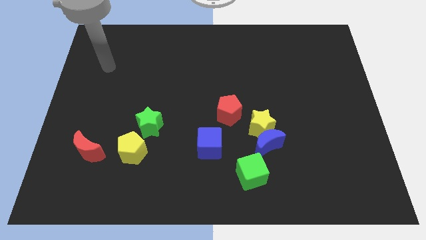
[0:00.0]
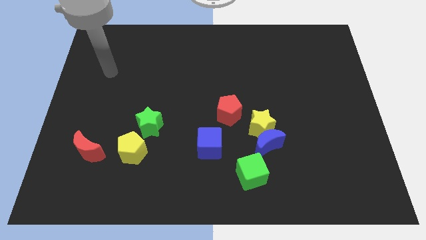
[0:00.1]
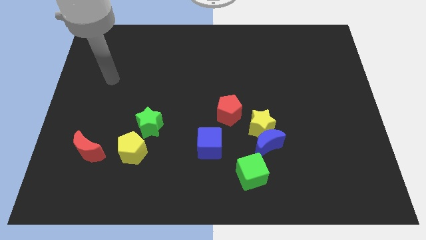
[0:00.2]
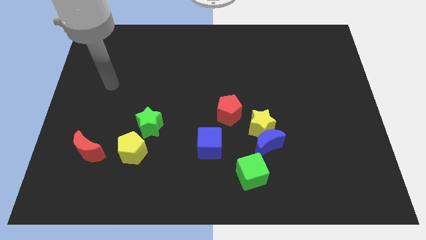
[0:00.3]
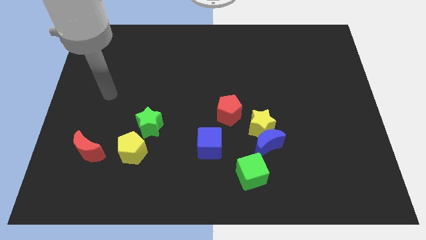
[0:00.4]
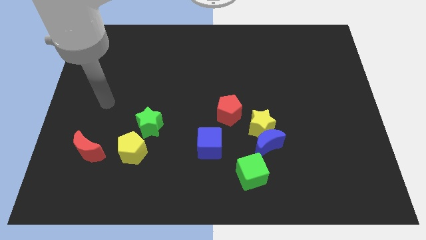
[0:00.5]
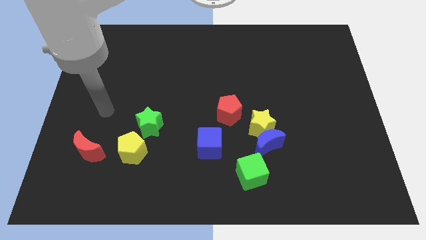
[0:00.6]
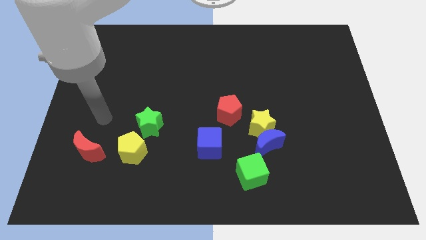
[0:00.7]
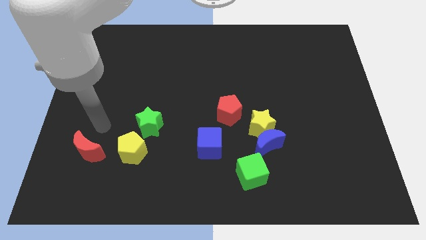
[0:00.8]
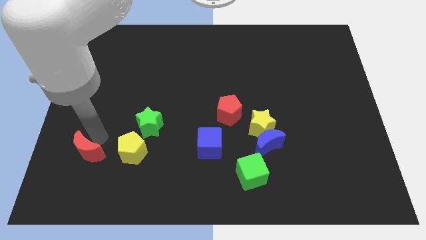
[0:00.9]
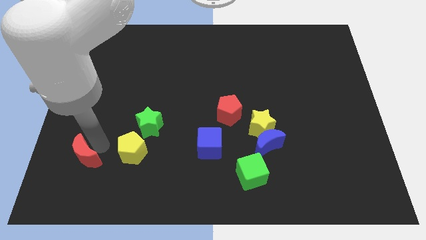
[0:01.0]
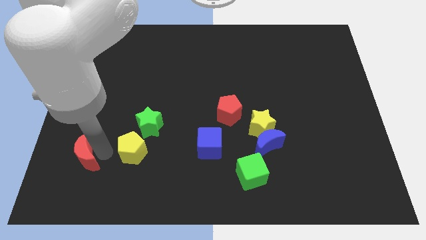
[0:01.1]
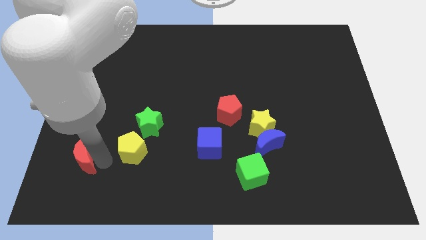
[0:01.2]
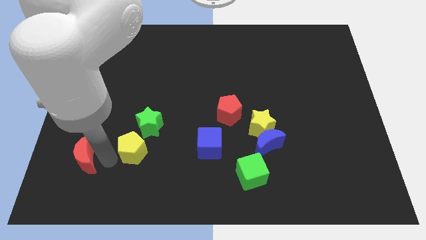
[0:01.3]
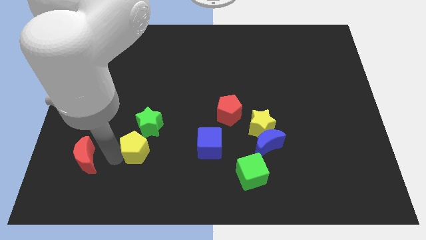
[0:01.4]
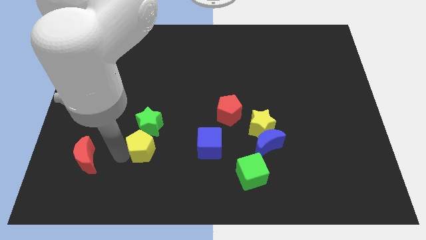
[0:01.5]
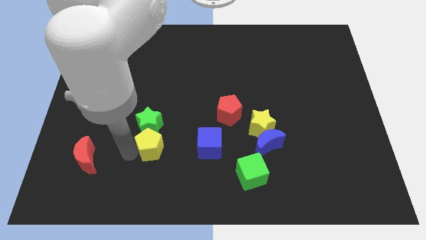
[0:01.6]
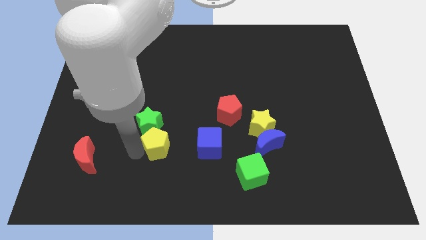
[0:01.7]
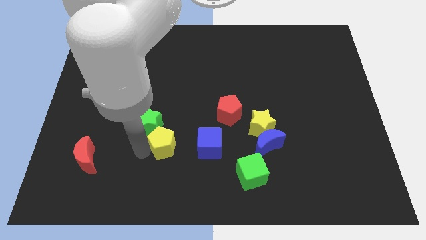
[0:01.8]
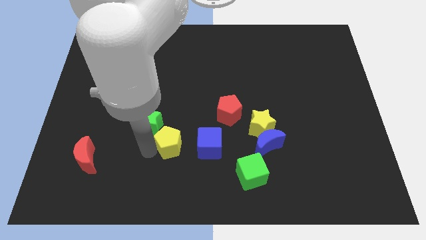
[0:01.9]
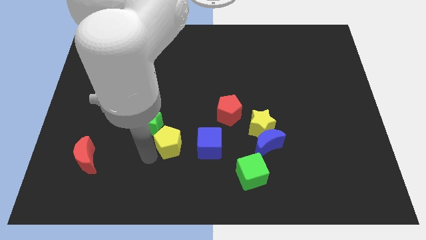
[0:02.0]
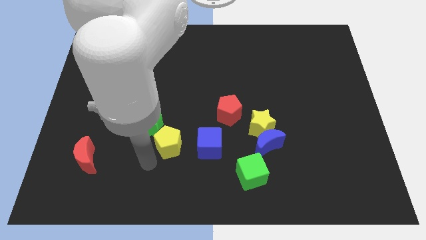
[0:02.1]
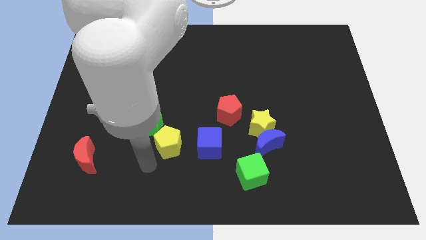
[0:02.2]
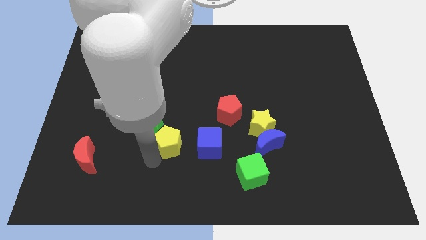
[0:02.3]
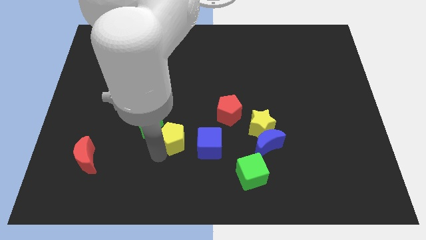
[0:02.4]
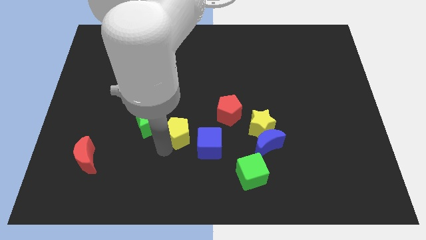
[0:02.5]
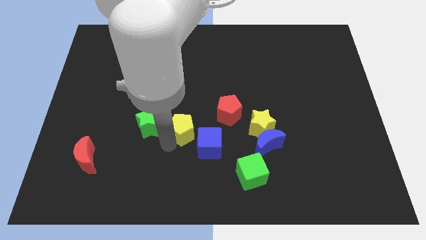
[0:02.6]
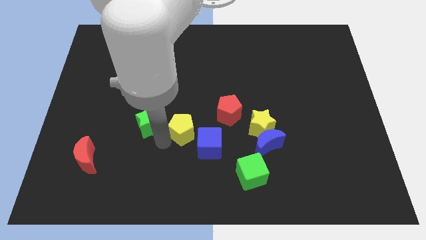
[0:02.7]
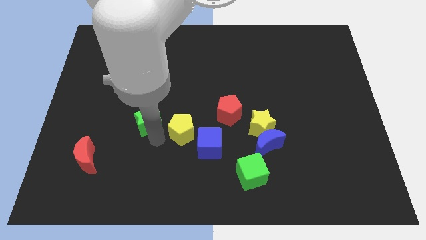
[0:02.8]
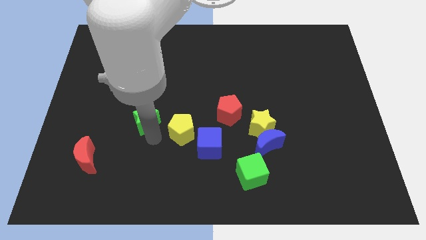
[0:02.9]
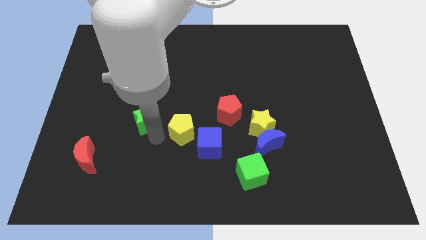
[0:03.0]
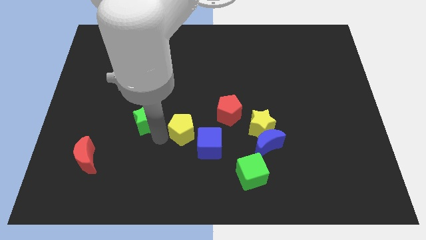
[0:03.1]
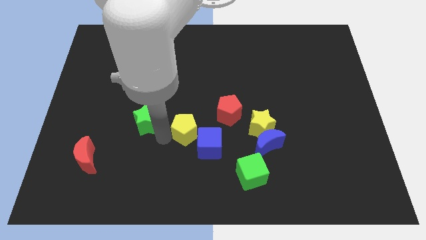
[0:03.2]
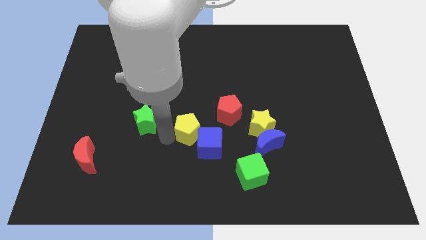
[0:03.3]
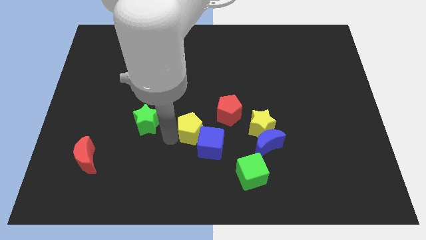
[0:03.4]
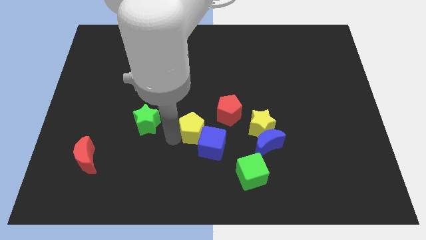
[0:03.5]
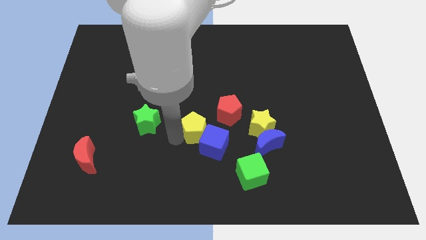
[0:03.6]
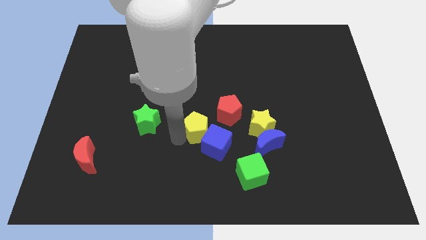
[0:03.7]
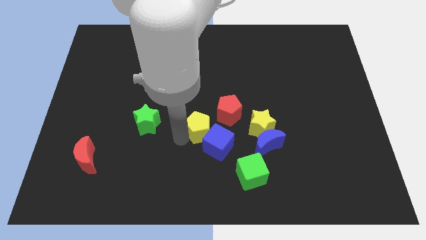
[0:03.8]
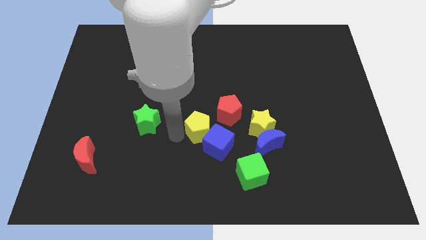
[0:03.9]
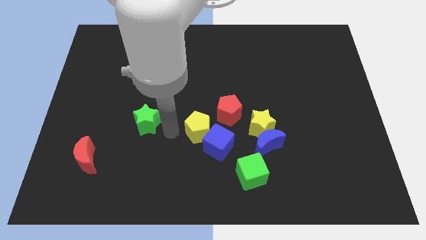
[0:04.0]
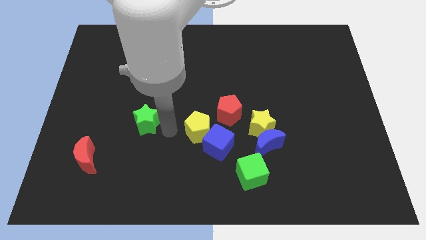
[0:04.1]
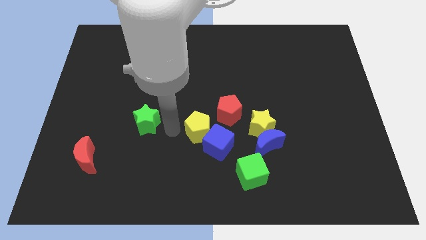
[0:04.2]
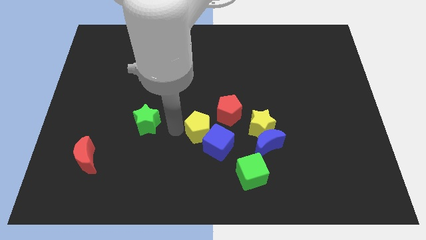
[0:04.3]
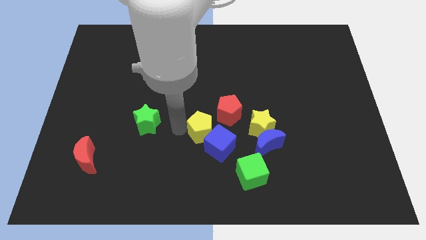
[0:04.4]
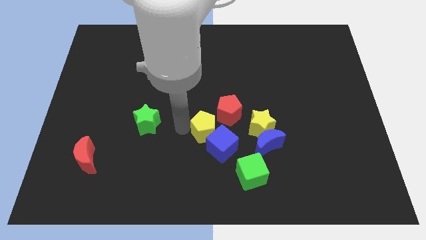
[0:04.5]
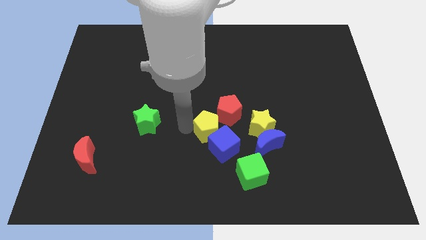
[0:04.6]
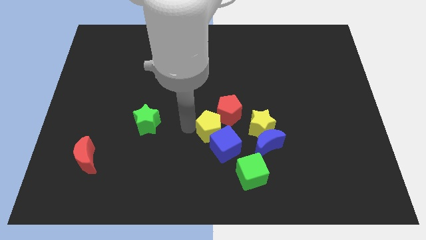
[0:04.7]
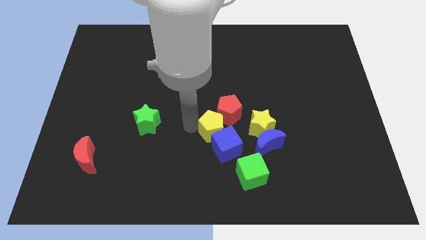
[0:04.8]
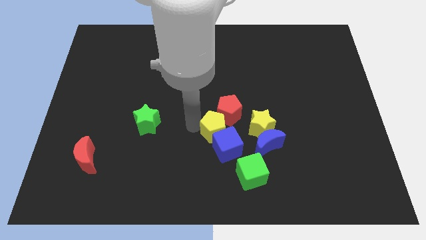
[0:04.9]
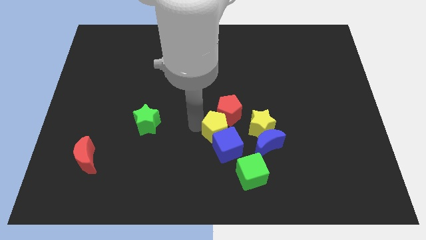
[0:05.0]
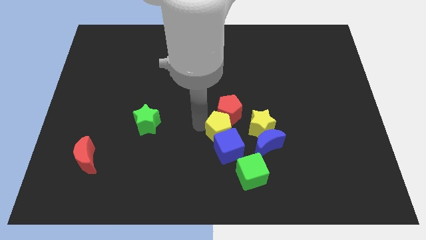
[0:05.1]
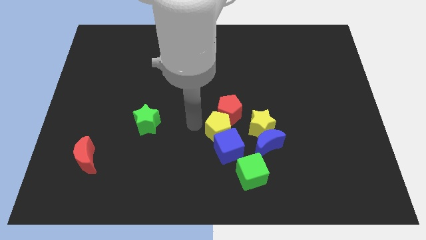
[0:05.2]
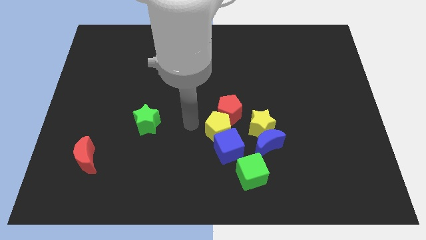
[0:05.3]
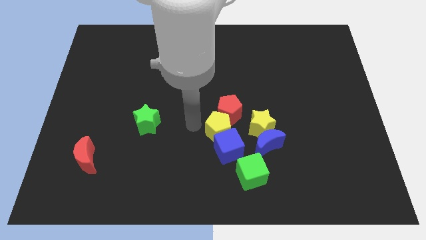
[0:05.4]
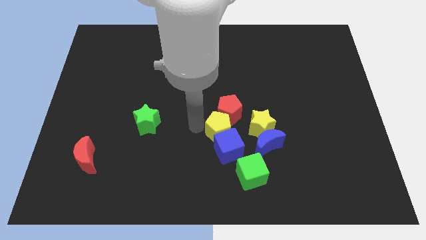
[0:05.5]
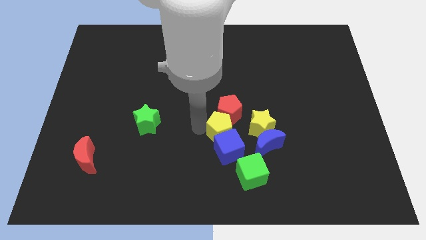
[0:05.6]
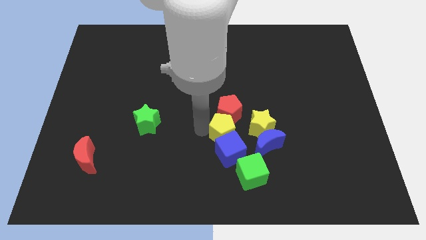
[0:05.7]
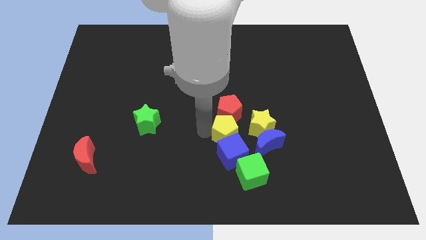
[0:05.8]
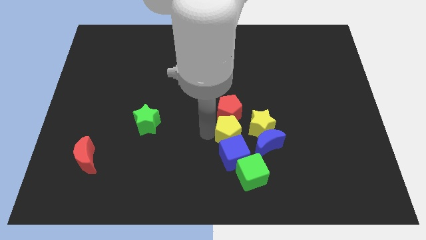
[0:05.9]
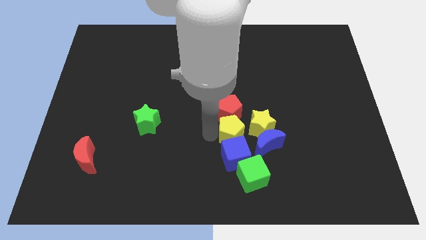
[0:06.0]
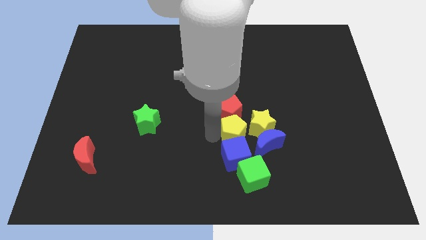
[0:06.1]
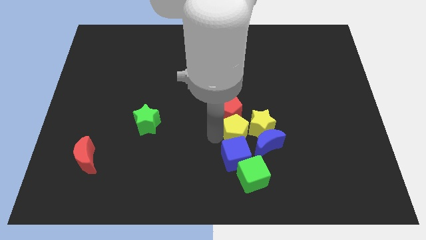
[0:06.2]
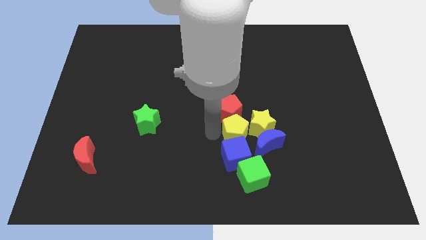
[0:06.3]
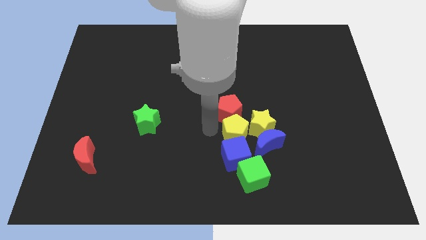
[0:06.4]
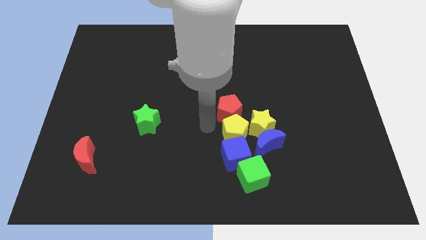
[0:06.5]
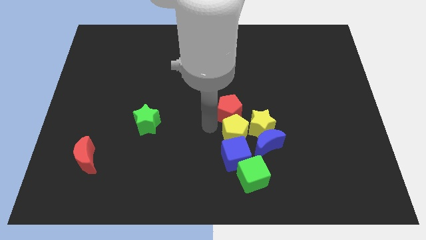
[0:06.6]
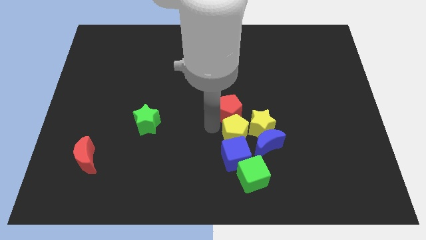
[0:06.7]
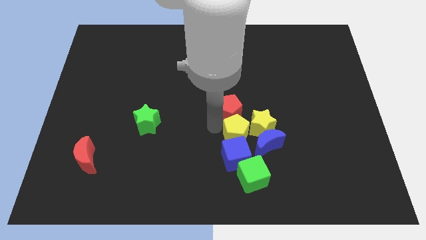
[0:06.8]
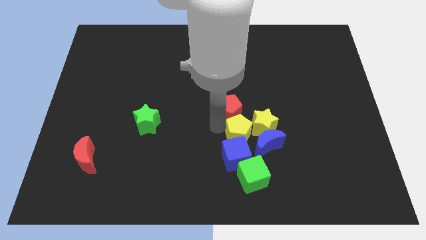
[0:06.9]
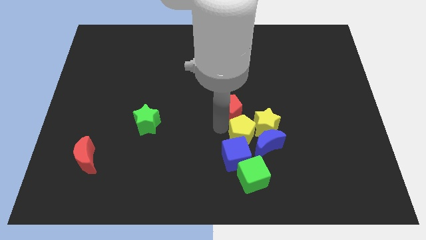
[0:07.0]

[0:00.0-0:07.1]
move the yellow pentagon close to the blue moon

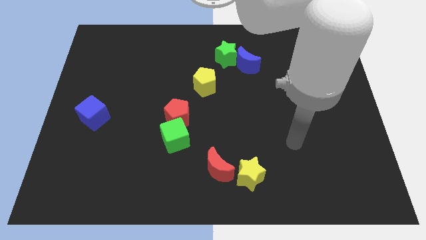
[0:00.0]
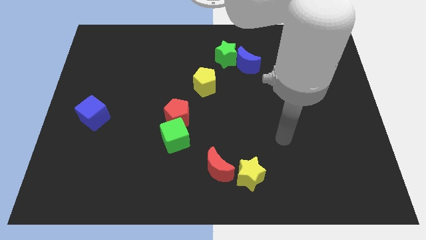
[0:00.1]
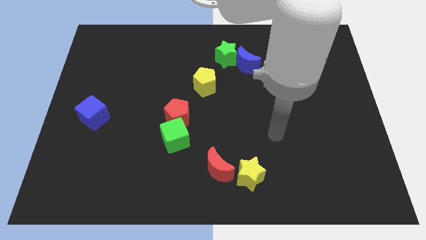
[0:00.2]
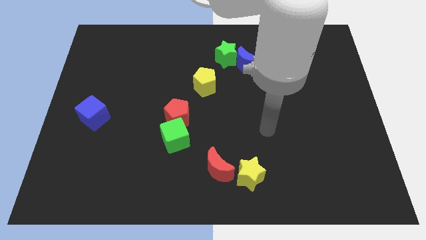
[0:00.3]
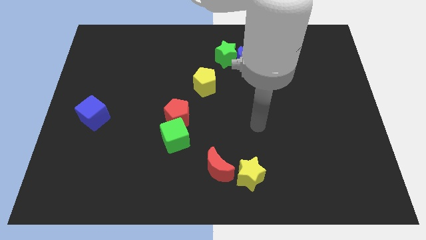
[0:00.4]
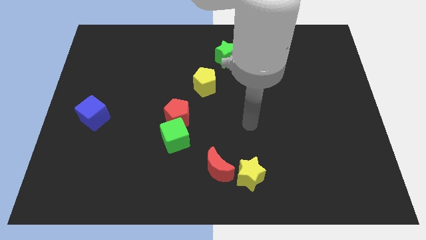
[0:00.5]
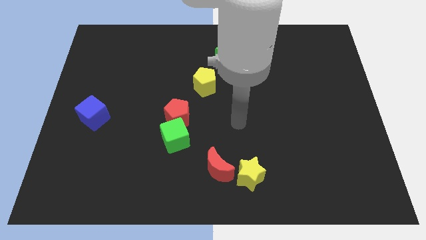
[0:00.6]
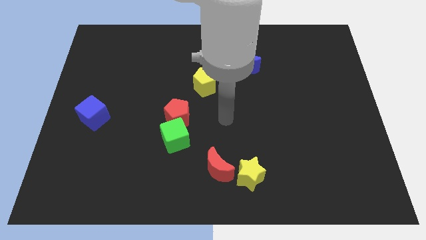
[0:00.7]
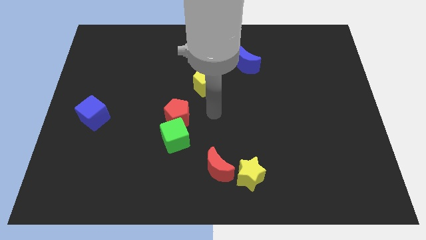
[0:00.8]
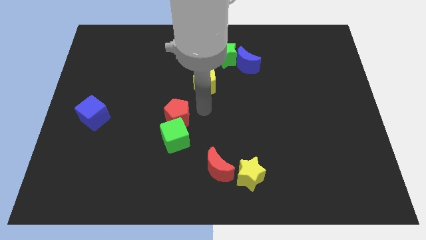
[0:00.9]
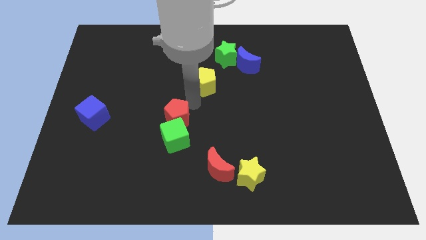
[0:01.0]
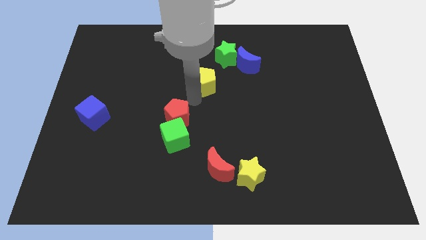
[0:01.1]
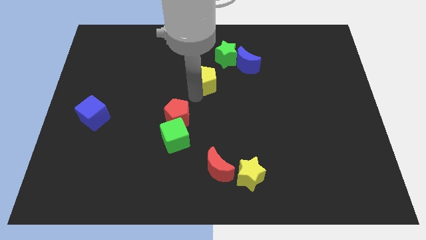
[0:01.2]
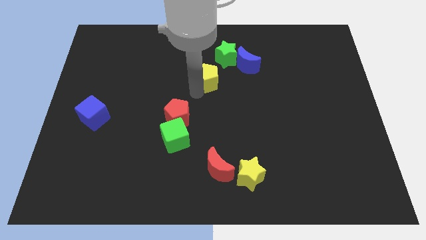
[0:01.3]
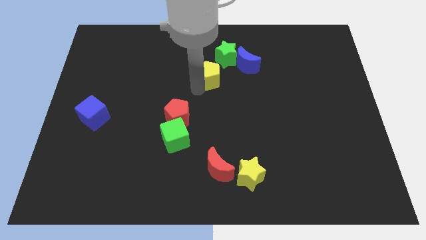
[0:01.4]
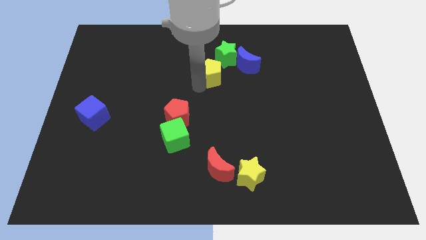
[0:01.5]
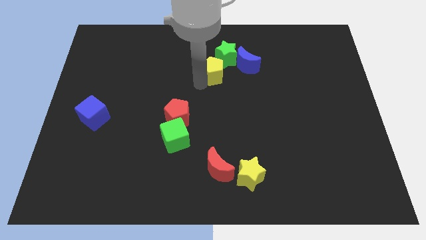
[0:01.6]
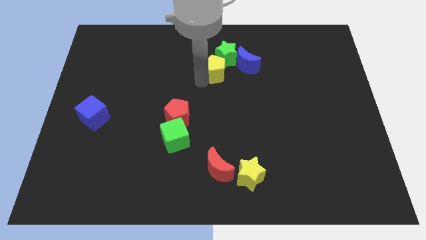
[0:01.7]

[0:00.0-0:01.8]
slide the yellow pentagon next to the green star
